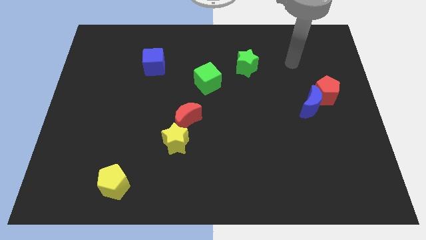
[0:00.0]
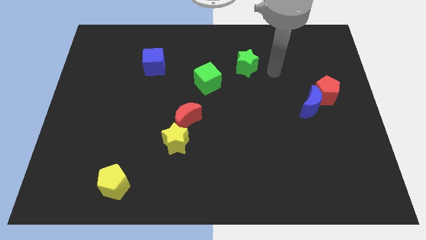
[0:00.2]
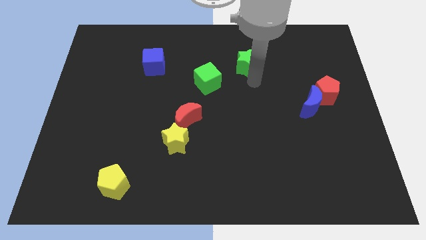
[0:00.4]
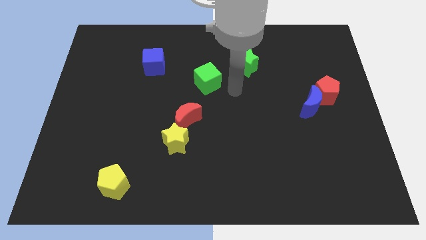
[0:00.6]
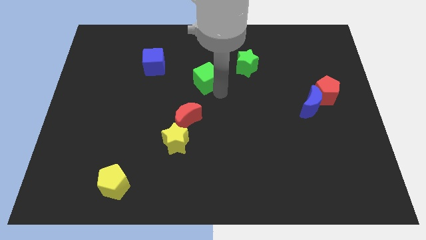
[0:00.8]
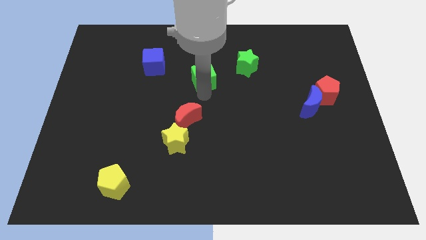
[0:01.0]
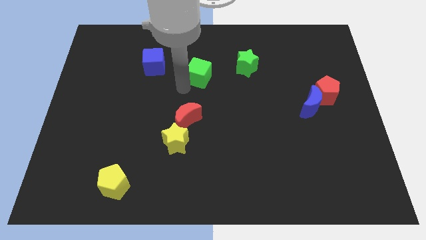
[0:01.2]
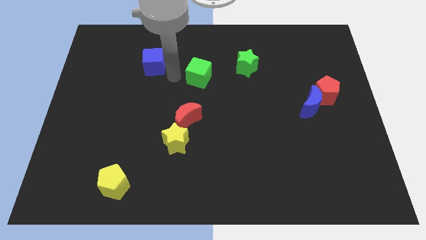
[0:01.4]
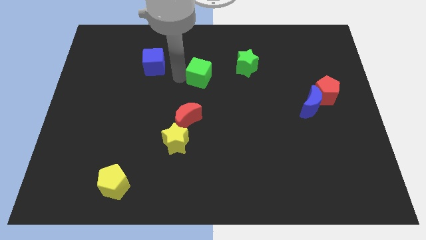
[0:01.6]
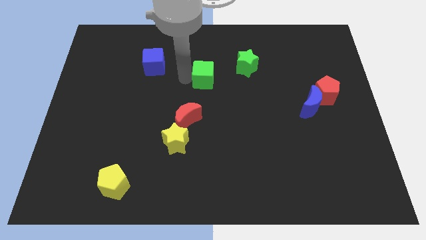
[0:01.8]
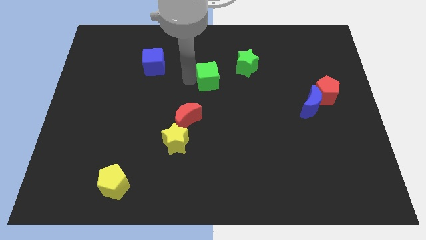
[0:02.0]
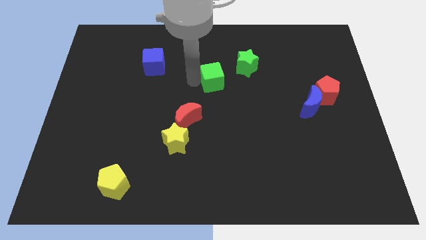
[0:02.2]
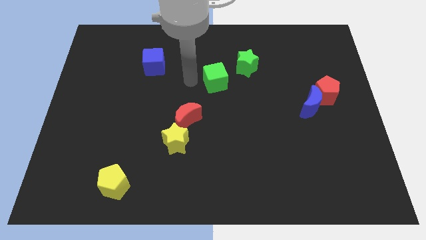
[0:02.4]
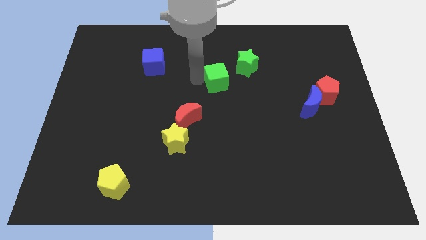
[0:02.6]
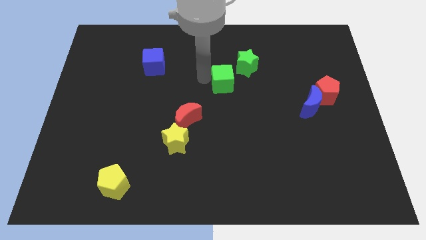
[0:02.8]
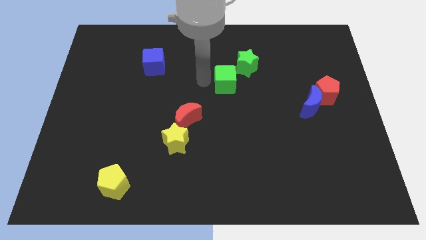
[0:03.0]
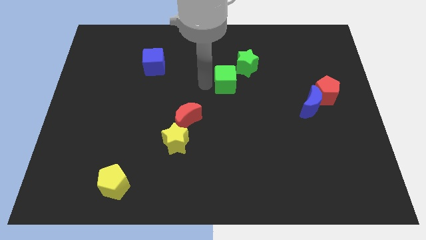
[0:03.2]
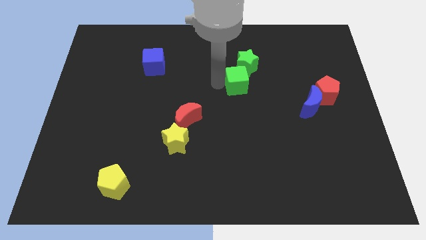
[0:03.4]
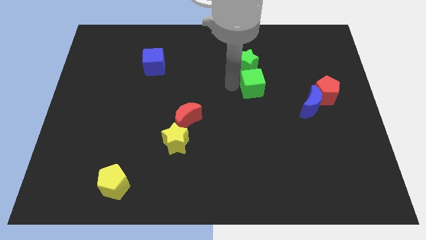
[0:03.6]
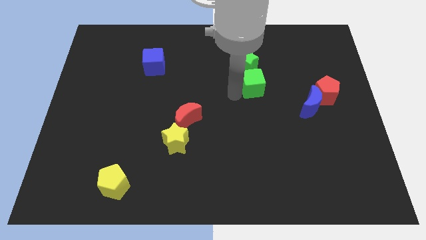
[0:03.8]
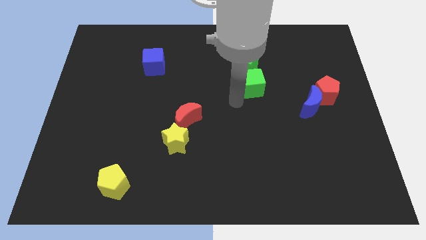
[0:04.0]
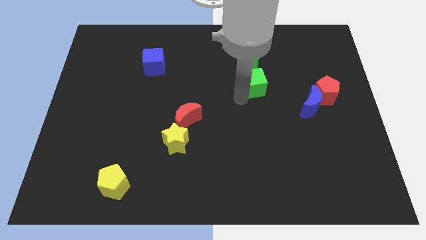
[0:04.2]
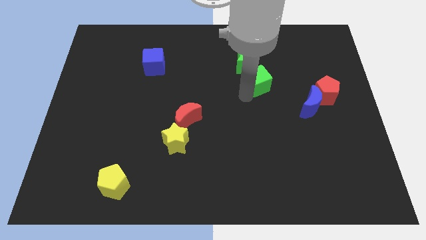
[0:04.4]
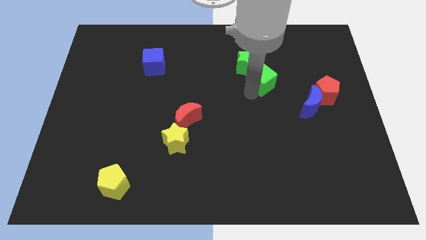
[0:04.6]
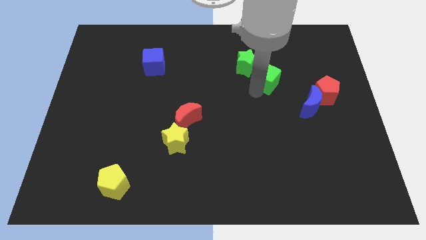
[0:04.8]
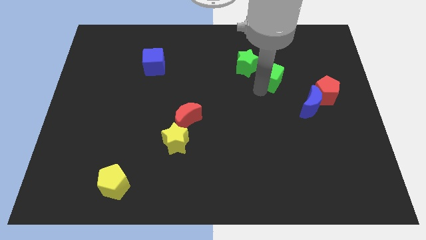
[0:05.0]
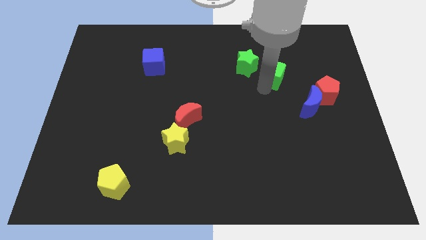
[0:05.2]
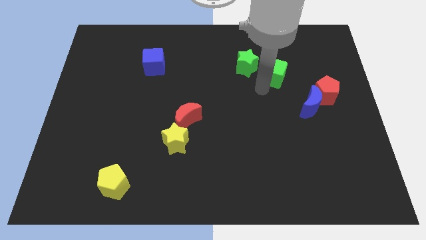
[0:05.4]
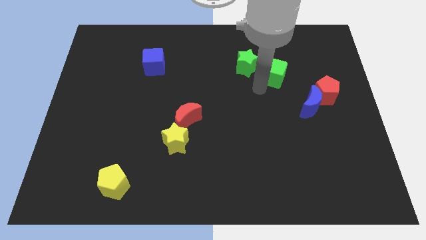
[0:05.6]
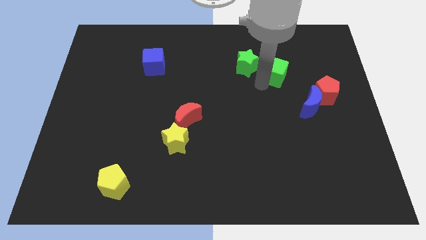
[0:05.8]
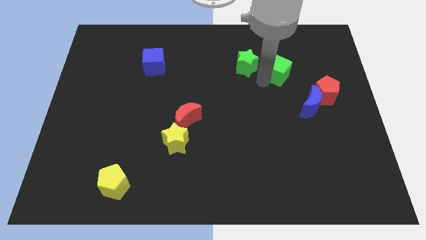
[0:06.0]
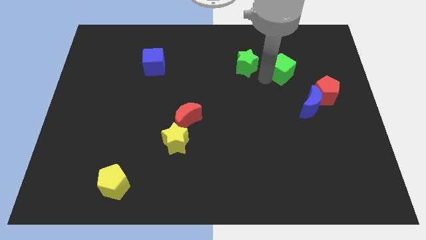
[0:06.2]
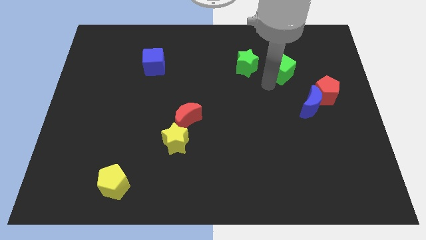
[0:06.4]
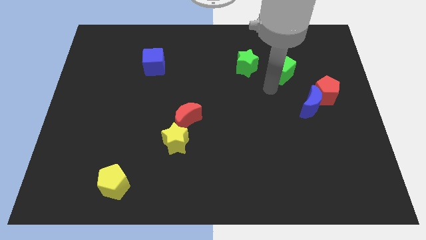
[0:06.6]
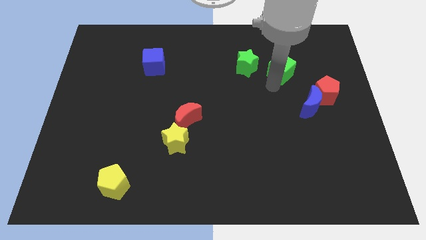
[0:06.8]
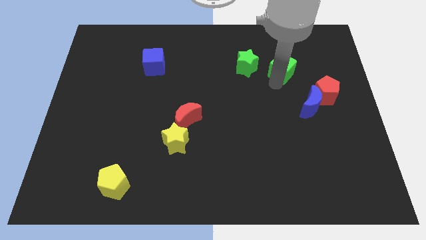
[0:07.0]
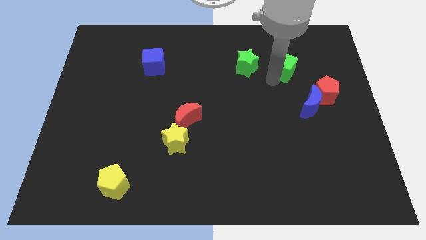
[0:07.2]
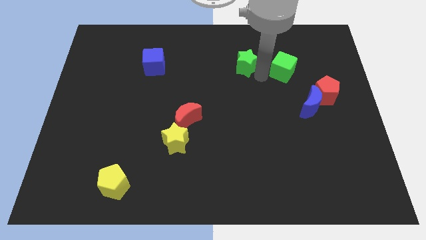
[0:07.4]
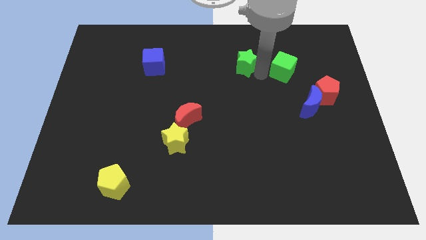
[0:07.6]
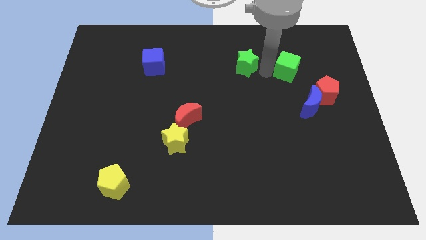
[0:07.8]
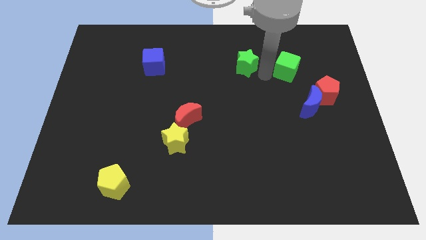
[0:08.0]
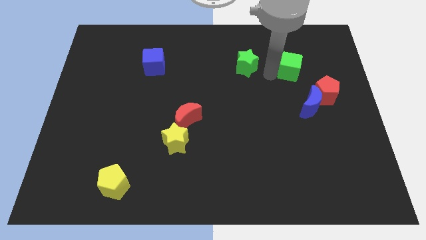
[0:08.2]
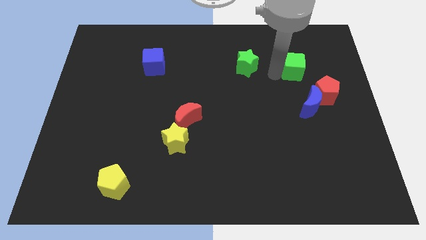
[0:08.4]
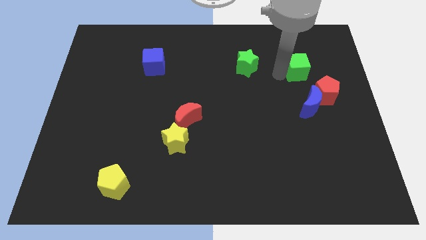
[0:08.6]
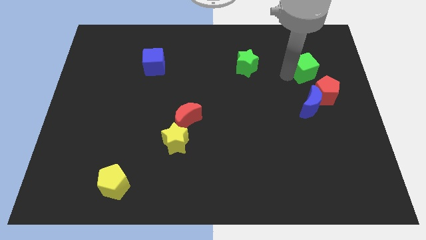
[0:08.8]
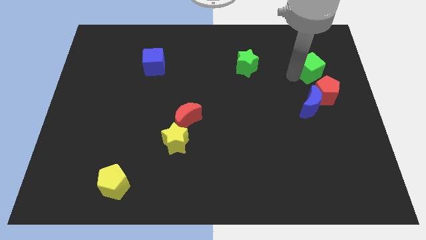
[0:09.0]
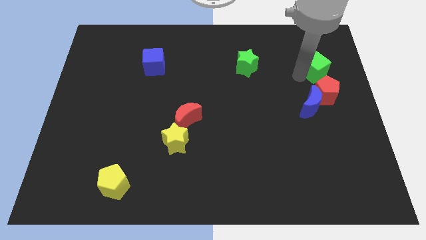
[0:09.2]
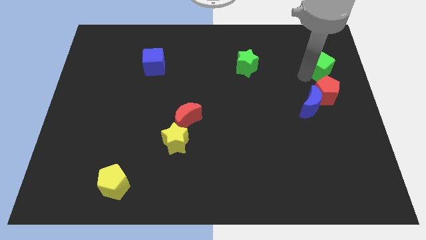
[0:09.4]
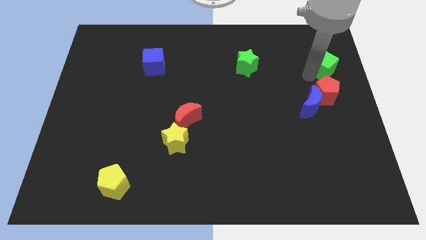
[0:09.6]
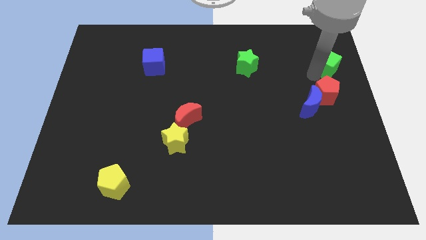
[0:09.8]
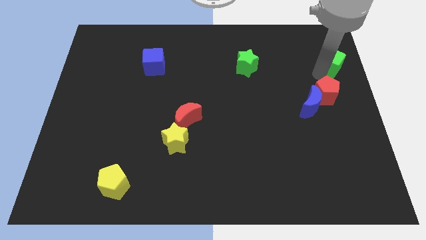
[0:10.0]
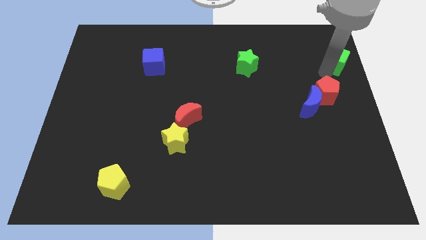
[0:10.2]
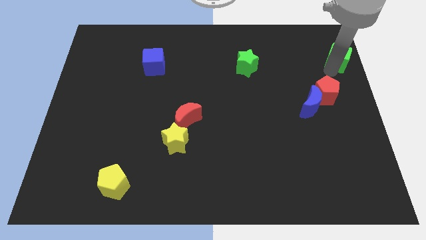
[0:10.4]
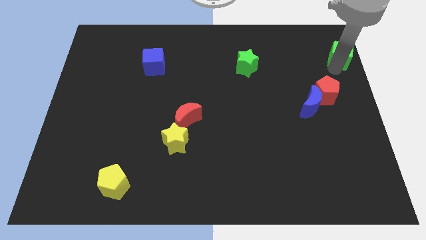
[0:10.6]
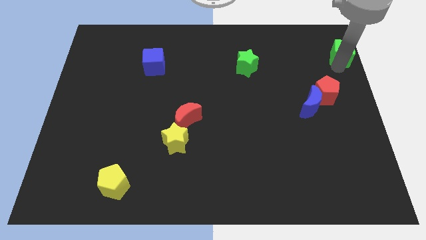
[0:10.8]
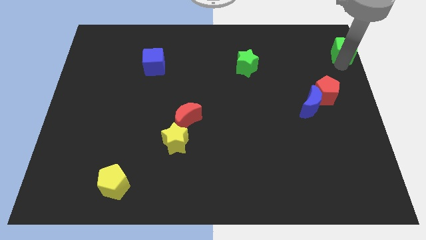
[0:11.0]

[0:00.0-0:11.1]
put the green cube to the top right of the board

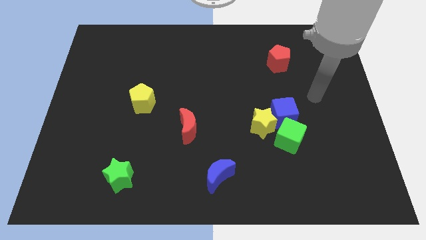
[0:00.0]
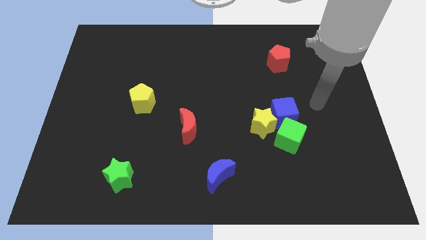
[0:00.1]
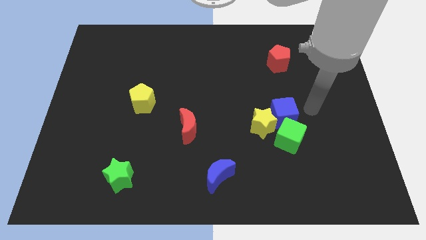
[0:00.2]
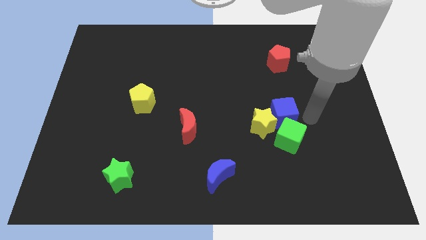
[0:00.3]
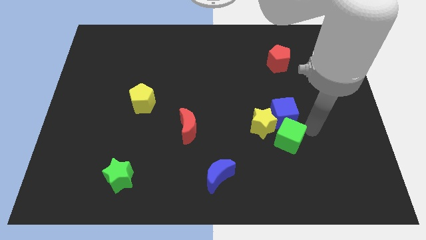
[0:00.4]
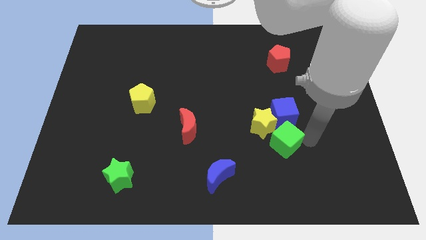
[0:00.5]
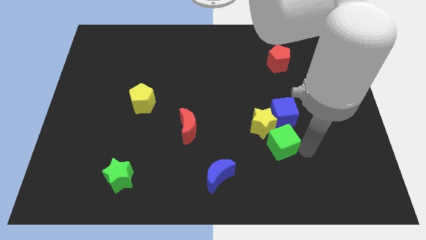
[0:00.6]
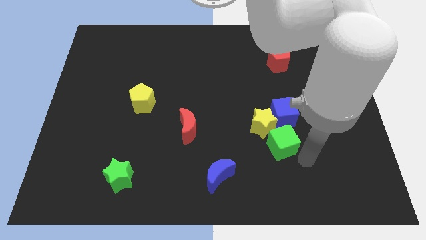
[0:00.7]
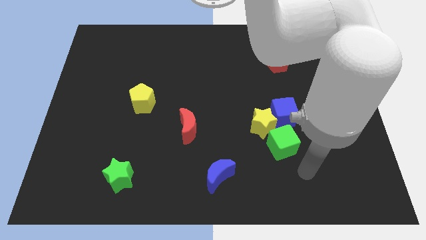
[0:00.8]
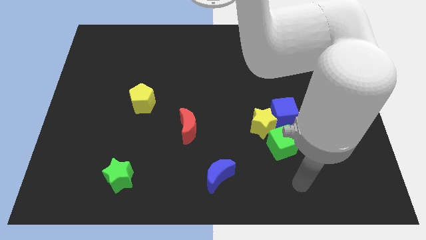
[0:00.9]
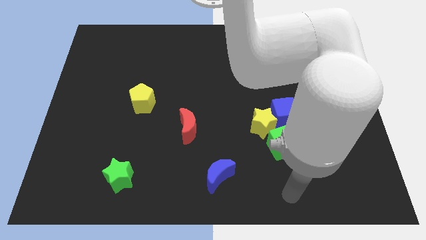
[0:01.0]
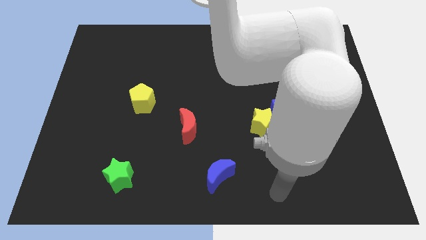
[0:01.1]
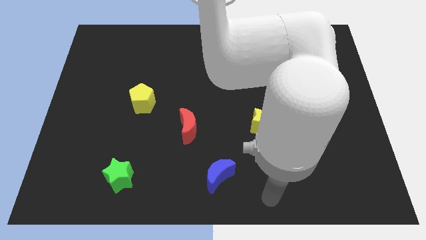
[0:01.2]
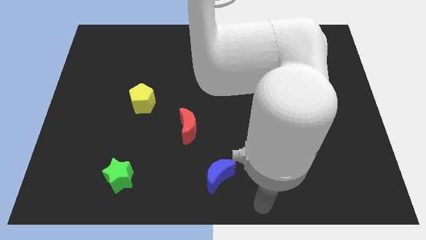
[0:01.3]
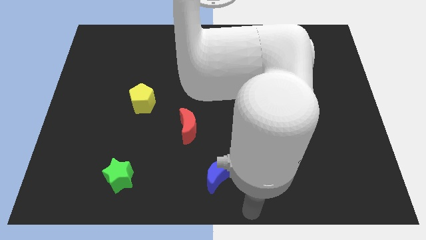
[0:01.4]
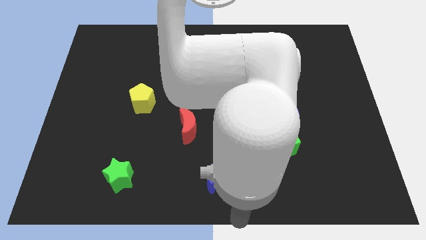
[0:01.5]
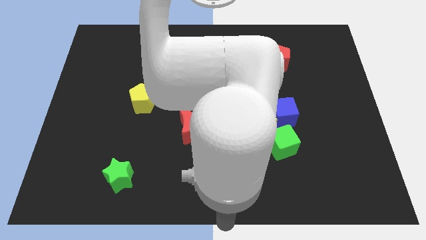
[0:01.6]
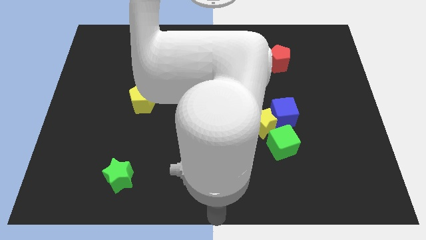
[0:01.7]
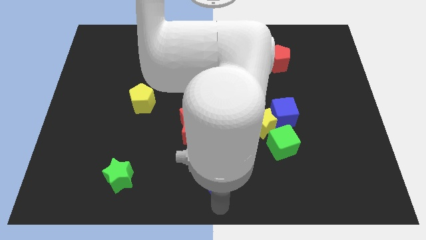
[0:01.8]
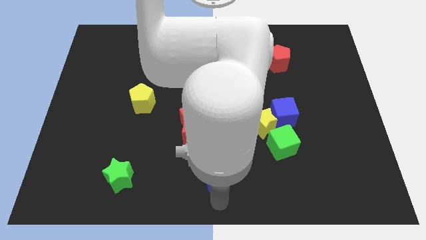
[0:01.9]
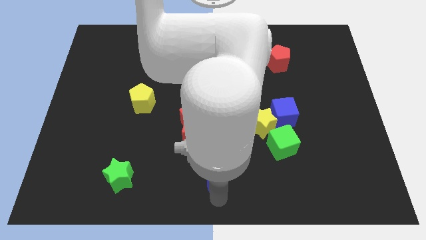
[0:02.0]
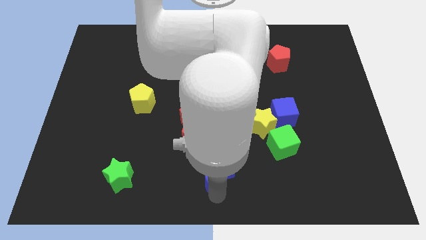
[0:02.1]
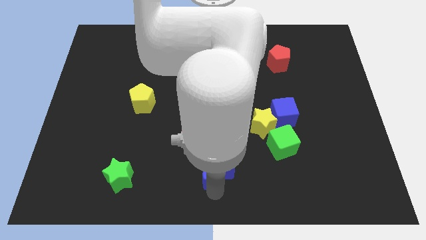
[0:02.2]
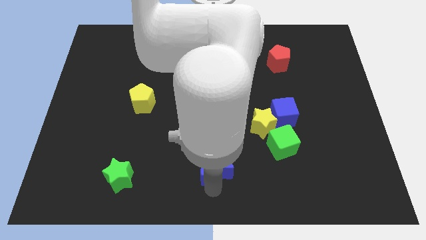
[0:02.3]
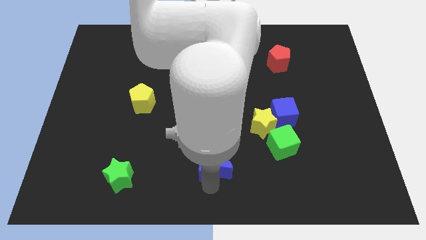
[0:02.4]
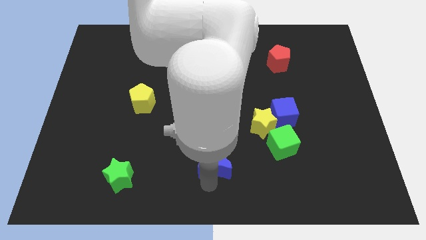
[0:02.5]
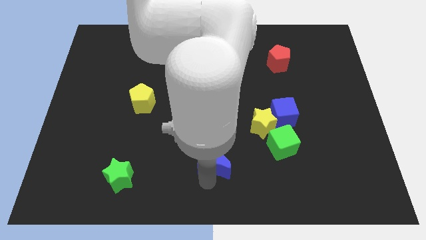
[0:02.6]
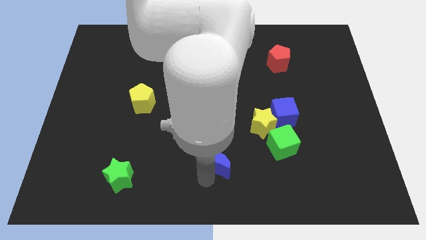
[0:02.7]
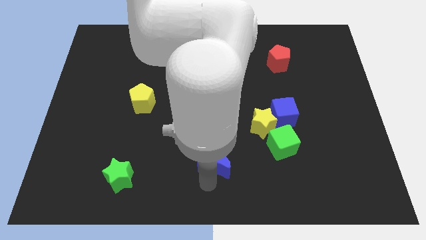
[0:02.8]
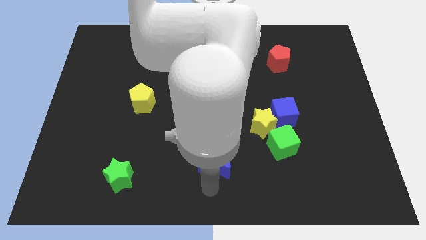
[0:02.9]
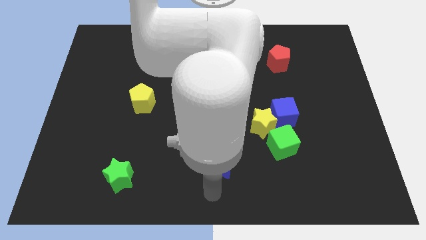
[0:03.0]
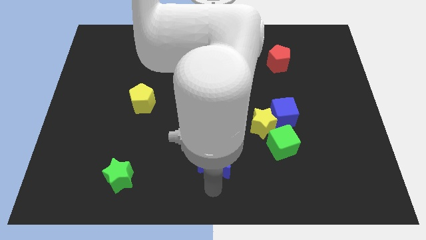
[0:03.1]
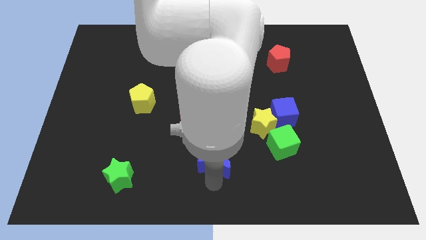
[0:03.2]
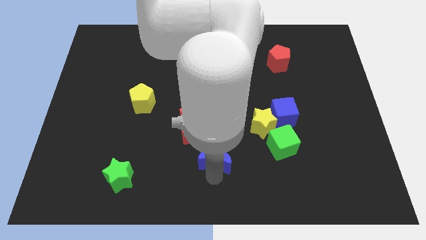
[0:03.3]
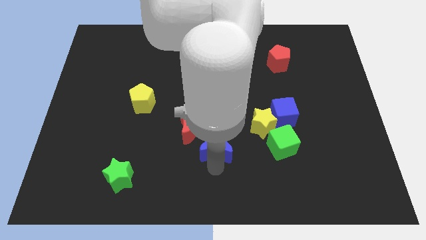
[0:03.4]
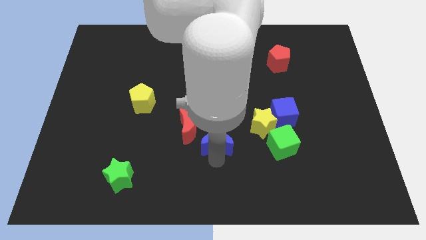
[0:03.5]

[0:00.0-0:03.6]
put the blue moon to the middle
